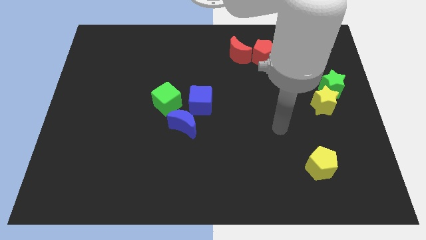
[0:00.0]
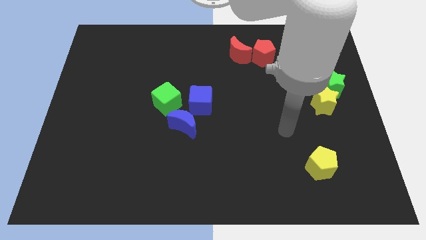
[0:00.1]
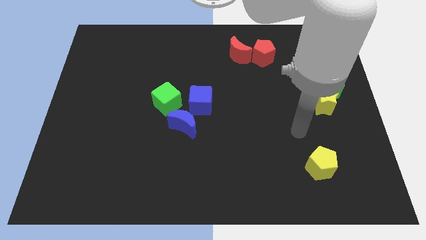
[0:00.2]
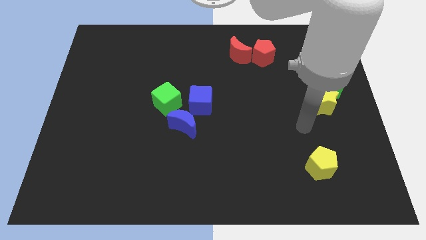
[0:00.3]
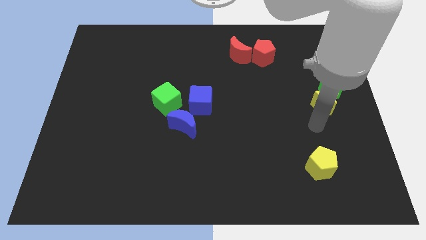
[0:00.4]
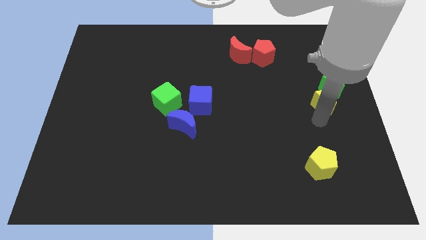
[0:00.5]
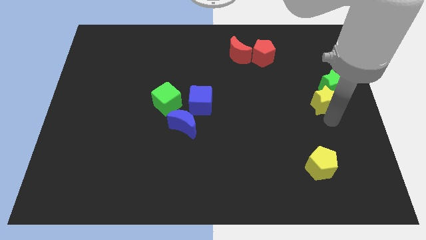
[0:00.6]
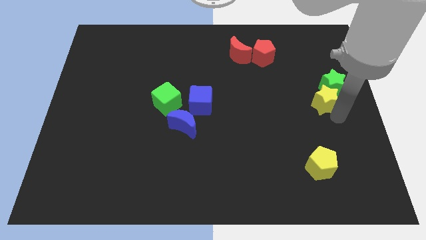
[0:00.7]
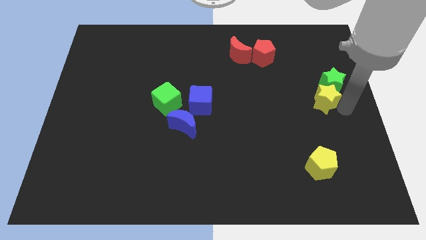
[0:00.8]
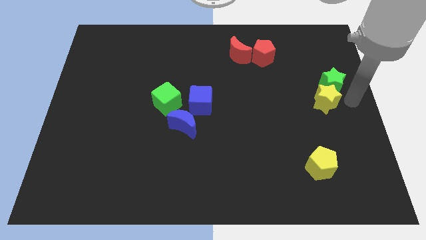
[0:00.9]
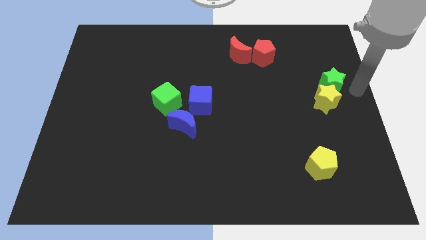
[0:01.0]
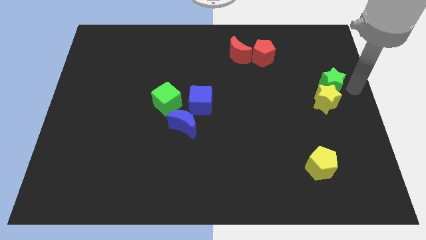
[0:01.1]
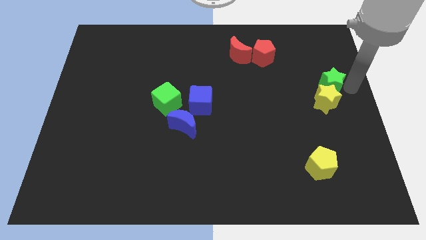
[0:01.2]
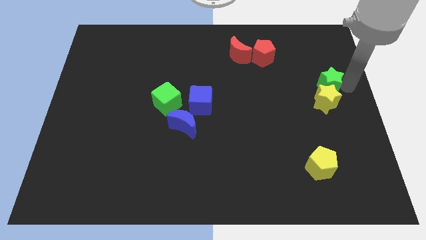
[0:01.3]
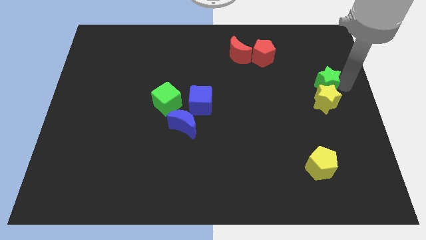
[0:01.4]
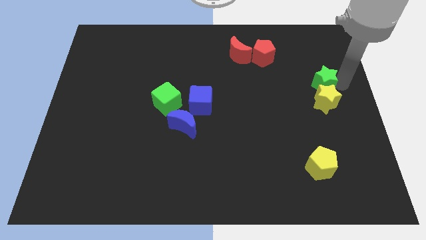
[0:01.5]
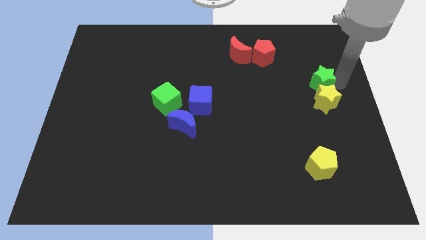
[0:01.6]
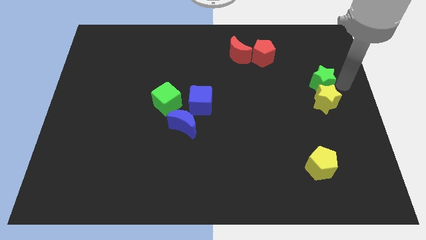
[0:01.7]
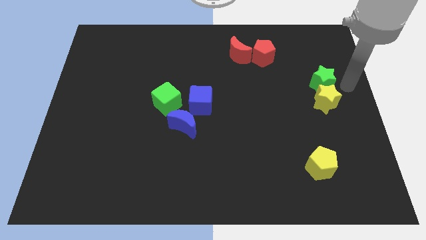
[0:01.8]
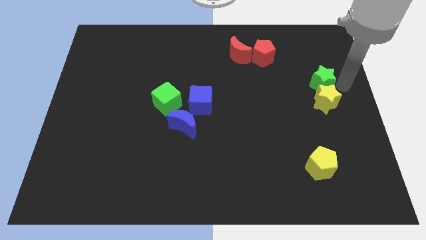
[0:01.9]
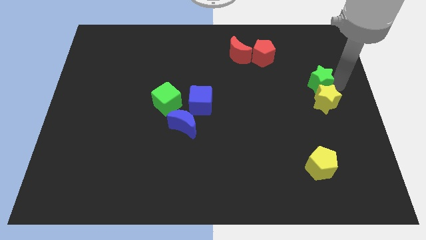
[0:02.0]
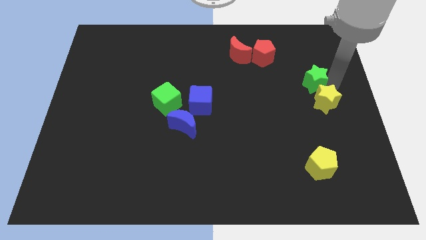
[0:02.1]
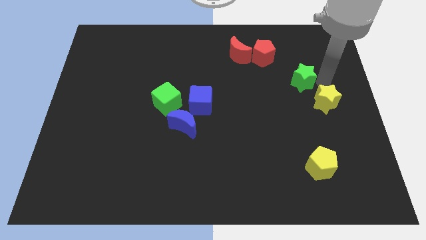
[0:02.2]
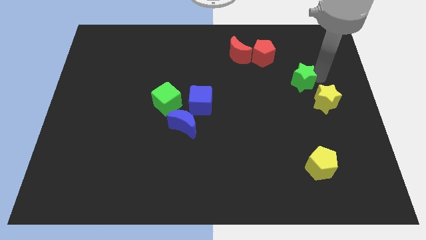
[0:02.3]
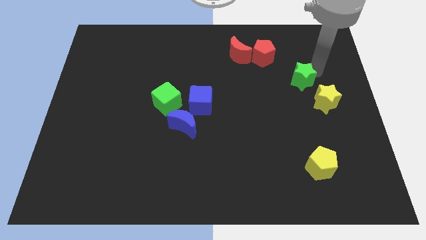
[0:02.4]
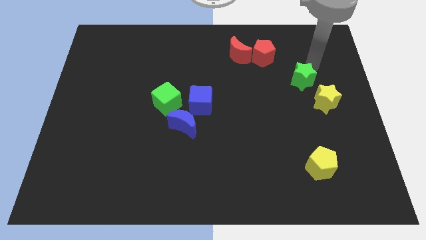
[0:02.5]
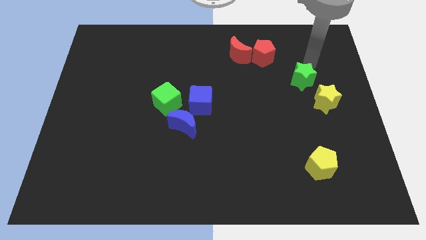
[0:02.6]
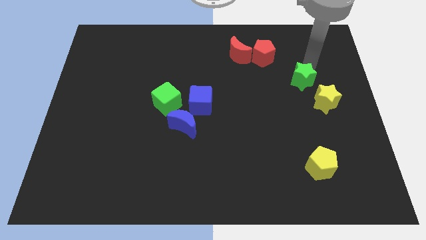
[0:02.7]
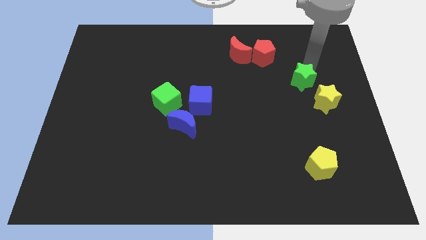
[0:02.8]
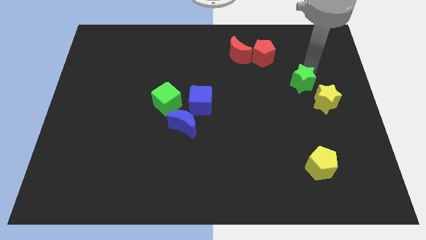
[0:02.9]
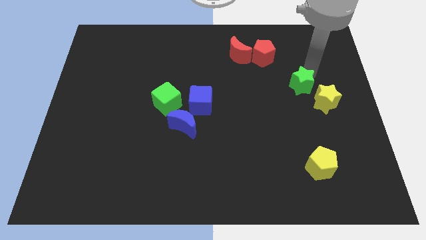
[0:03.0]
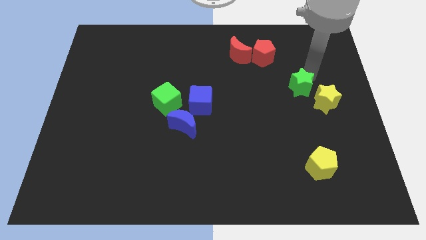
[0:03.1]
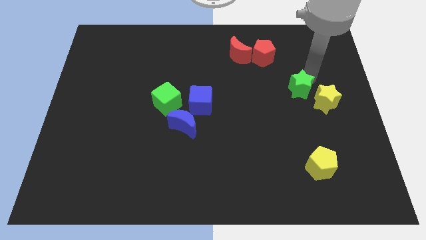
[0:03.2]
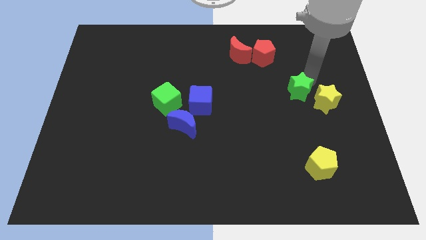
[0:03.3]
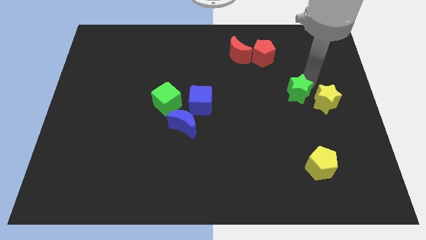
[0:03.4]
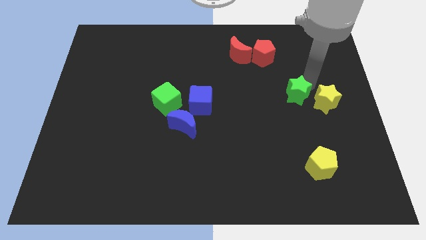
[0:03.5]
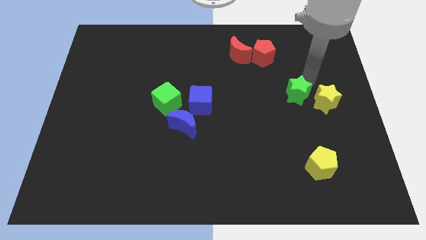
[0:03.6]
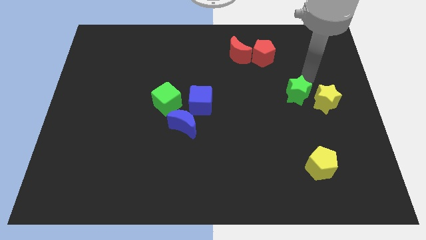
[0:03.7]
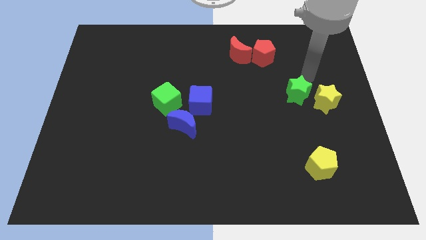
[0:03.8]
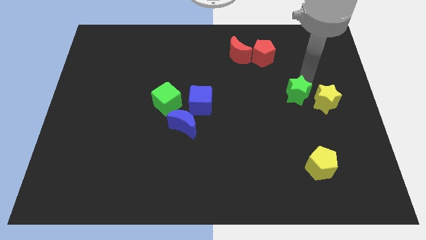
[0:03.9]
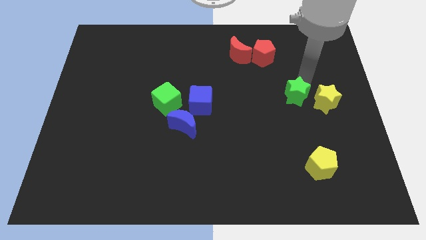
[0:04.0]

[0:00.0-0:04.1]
push the green star somewhat down and left diagonally

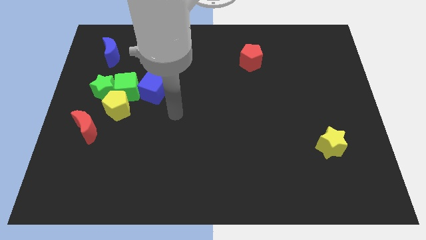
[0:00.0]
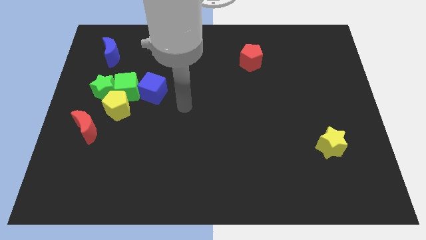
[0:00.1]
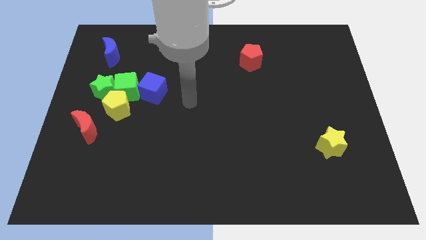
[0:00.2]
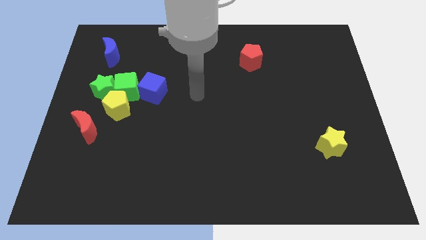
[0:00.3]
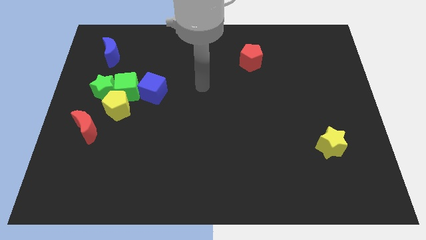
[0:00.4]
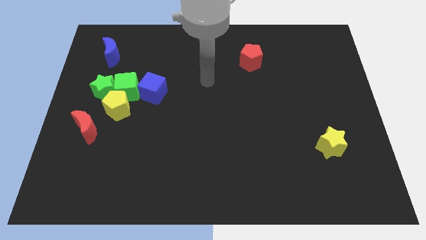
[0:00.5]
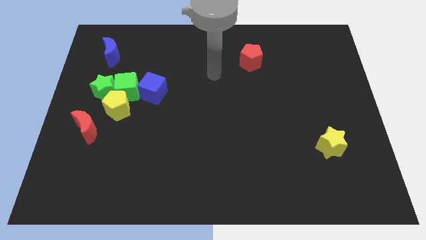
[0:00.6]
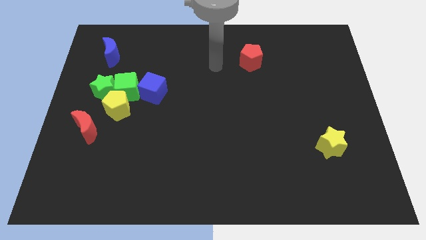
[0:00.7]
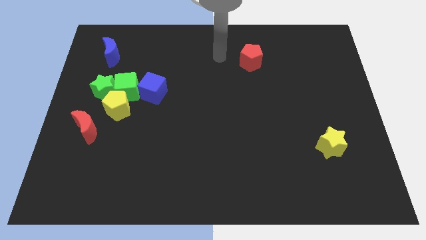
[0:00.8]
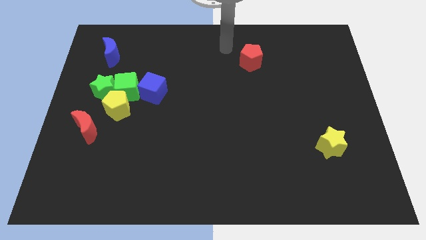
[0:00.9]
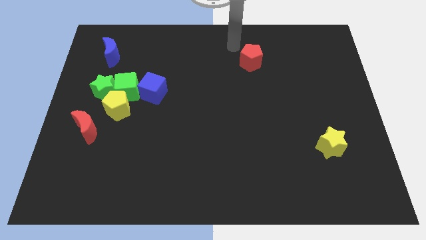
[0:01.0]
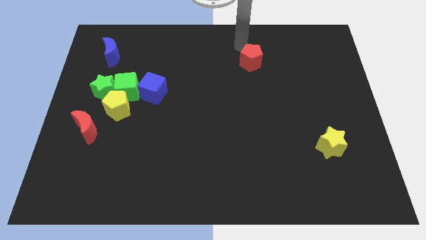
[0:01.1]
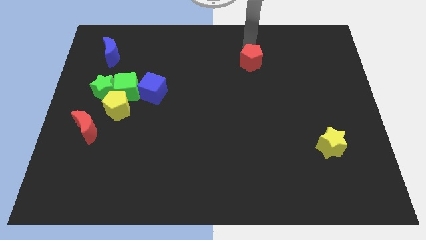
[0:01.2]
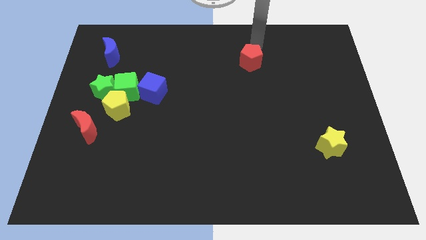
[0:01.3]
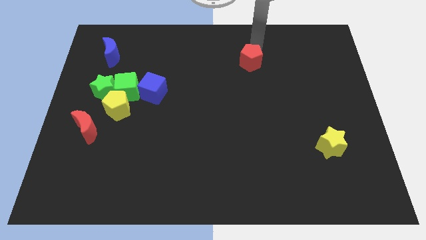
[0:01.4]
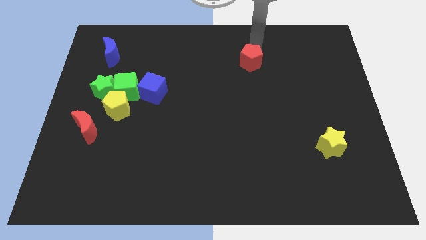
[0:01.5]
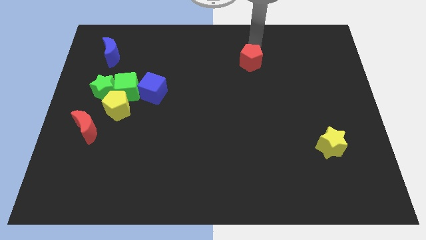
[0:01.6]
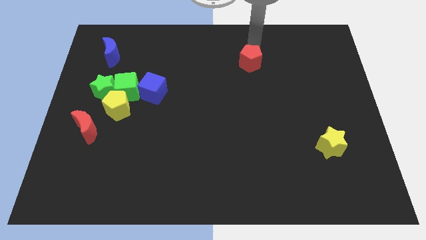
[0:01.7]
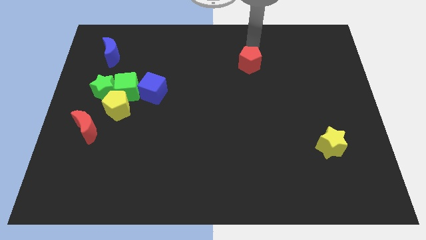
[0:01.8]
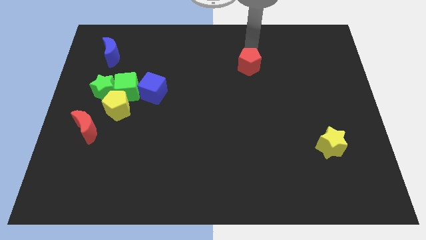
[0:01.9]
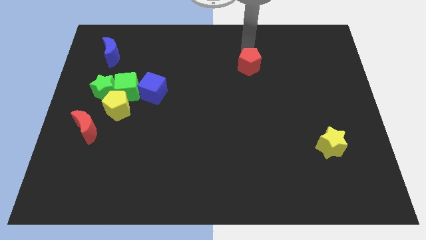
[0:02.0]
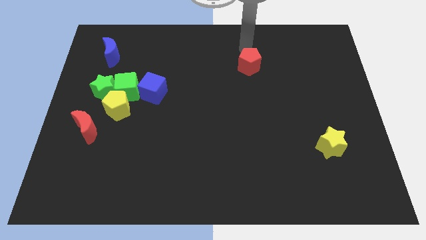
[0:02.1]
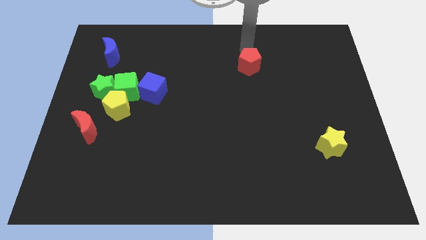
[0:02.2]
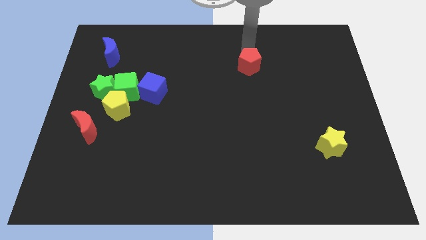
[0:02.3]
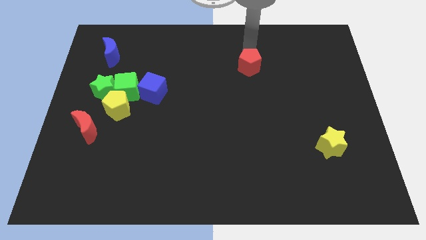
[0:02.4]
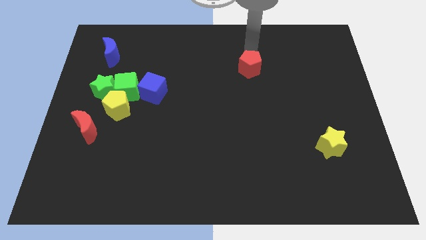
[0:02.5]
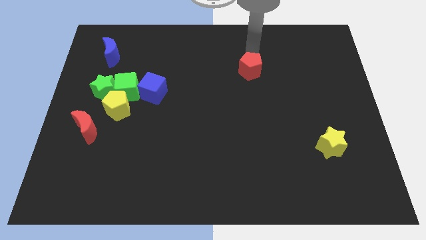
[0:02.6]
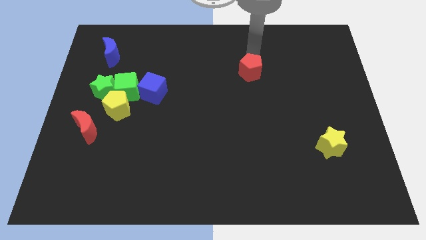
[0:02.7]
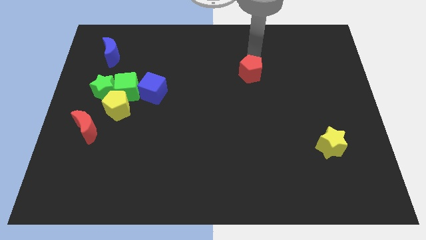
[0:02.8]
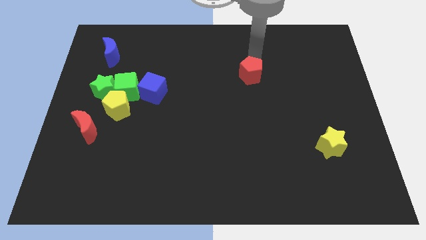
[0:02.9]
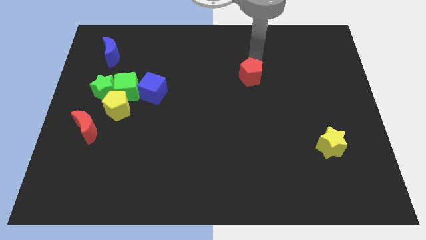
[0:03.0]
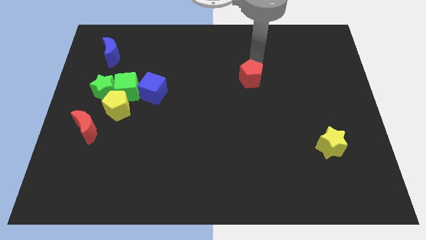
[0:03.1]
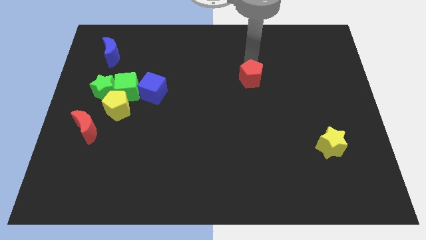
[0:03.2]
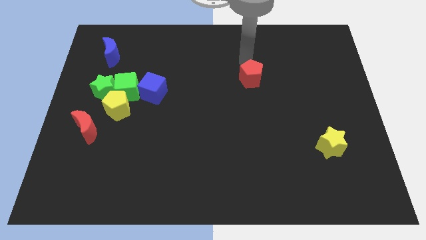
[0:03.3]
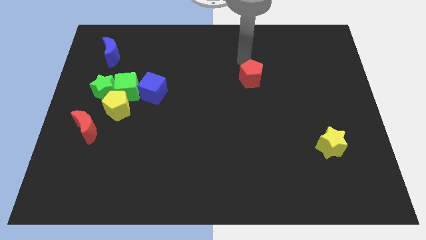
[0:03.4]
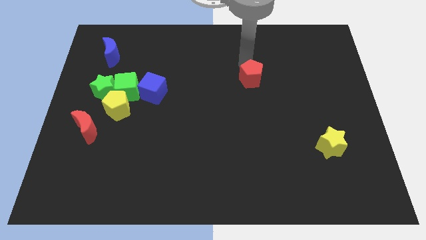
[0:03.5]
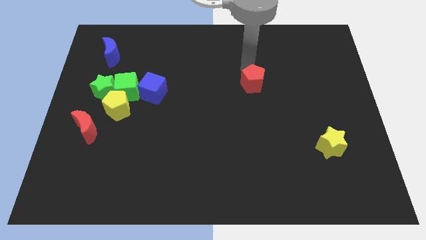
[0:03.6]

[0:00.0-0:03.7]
slide the red pentagon a little bit downwards

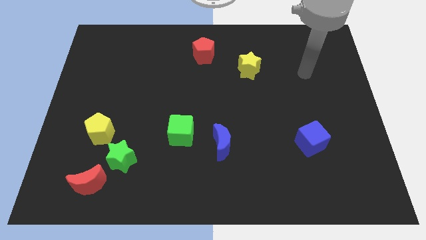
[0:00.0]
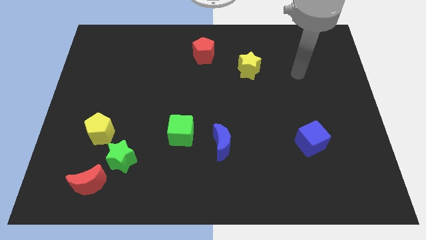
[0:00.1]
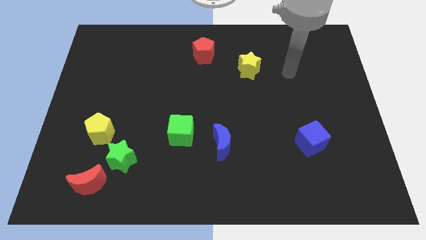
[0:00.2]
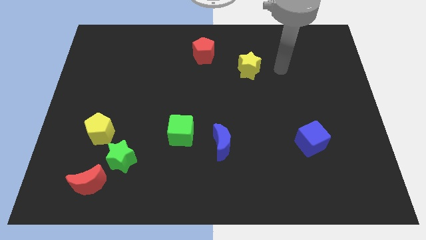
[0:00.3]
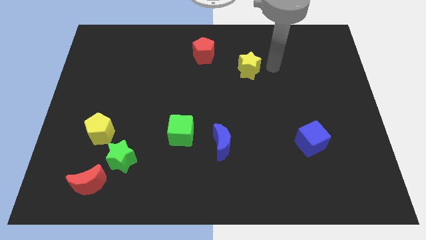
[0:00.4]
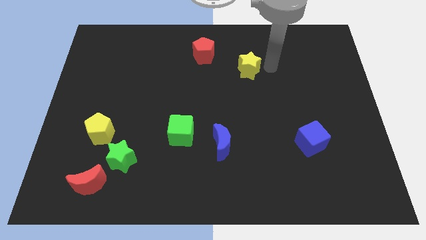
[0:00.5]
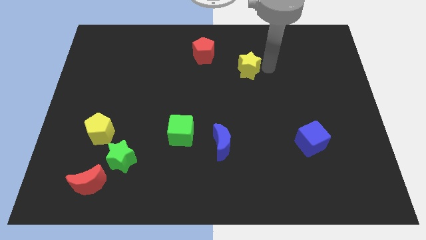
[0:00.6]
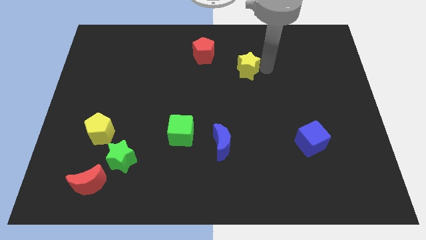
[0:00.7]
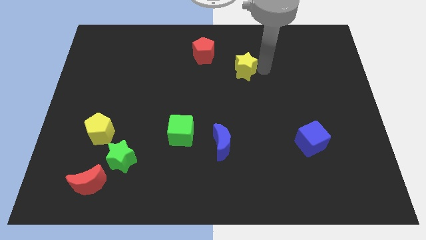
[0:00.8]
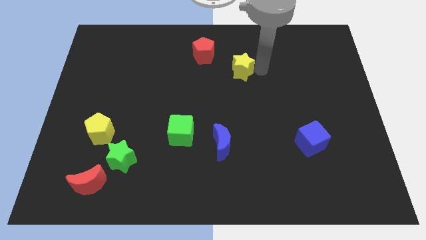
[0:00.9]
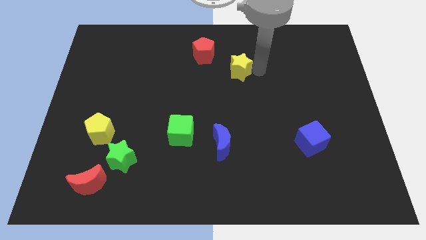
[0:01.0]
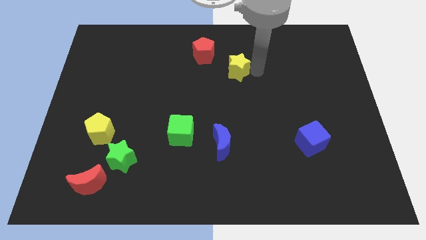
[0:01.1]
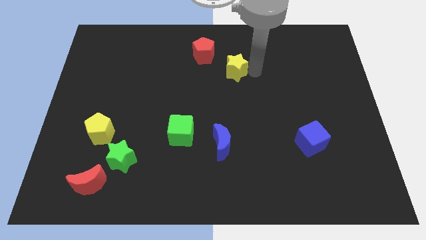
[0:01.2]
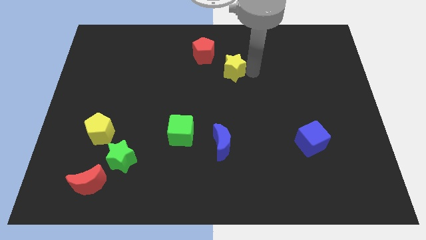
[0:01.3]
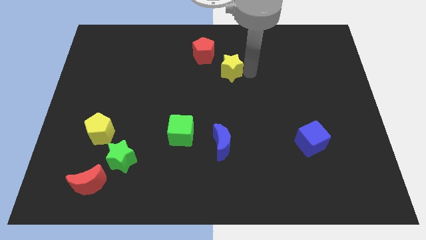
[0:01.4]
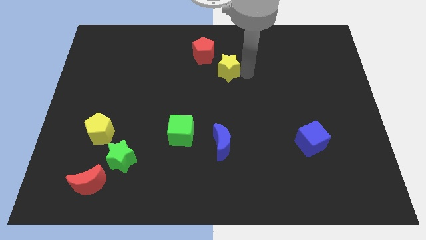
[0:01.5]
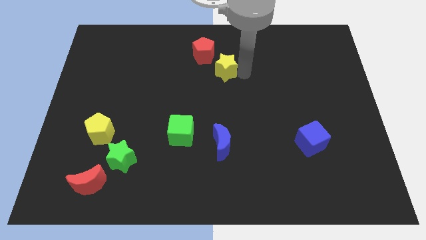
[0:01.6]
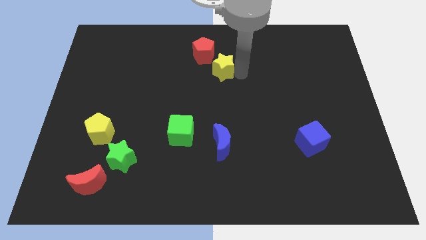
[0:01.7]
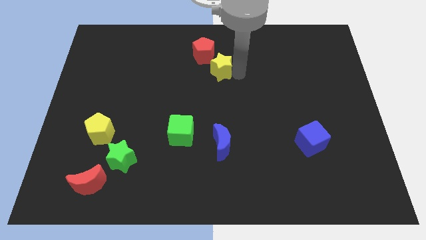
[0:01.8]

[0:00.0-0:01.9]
slightly move the yellow star to the left
